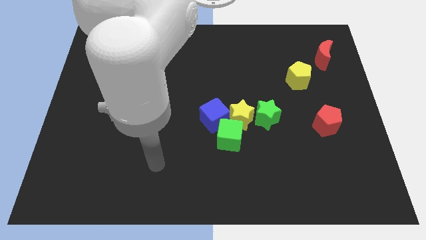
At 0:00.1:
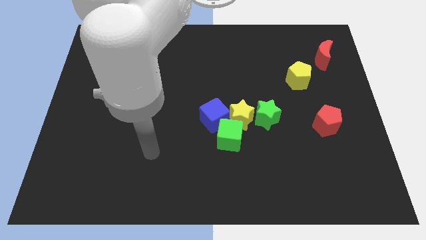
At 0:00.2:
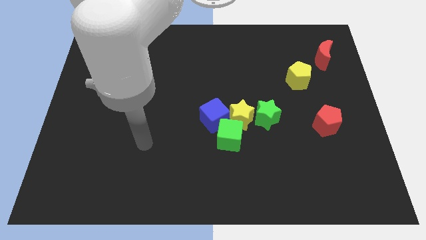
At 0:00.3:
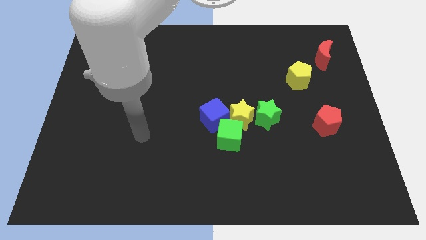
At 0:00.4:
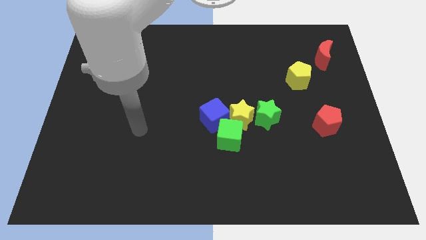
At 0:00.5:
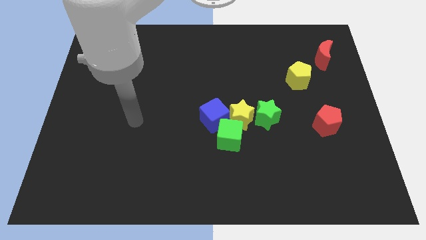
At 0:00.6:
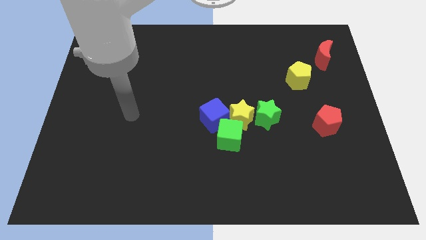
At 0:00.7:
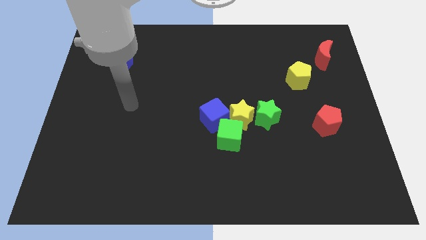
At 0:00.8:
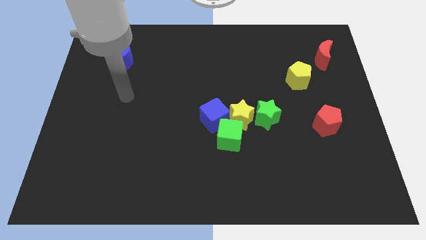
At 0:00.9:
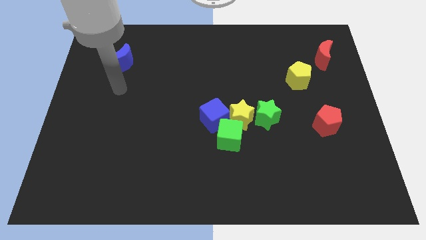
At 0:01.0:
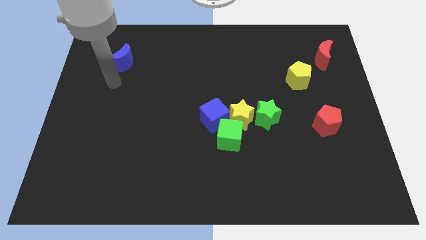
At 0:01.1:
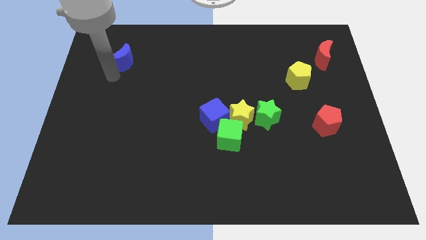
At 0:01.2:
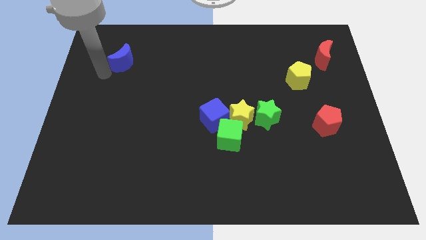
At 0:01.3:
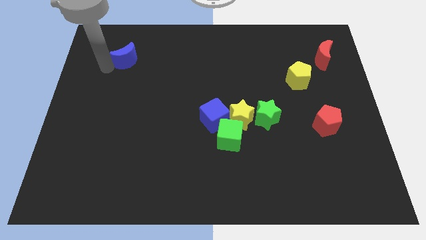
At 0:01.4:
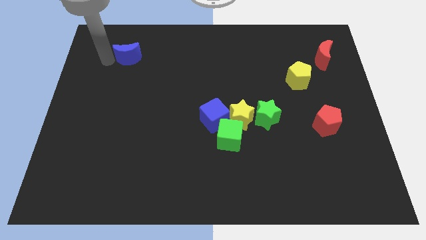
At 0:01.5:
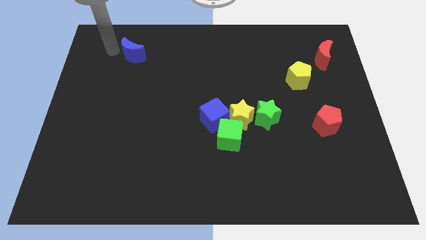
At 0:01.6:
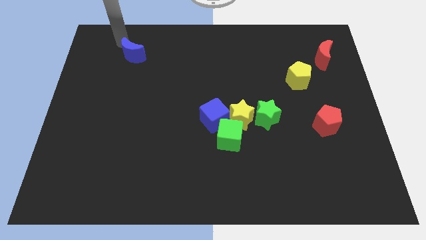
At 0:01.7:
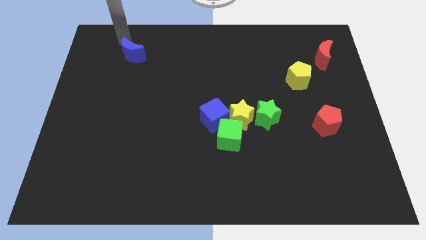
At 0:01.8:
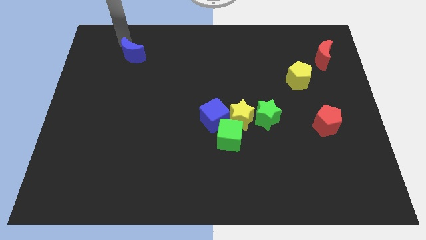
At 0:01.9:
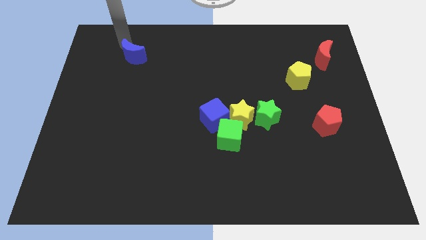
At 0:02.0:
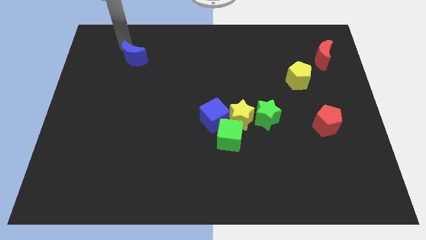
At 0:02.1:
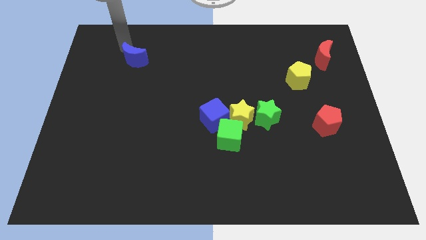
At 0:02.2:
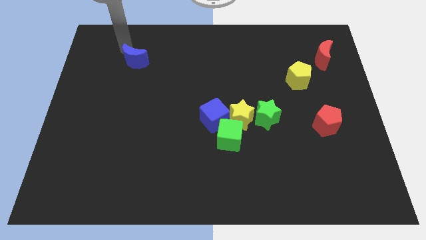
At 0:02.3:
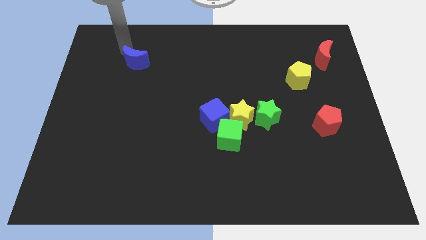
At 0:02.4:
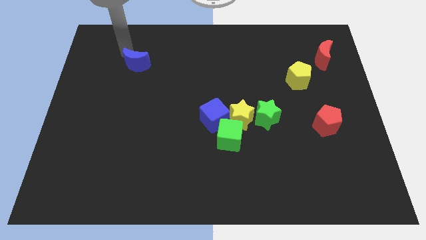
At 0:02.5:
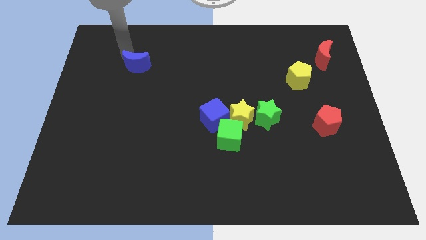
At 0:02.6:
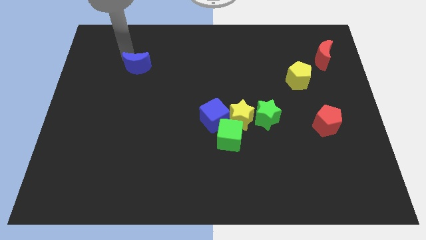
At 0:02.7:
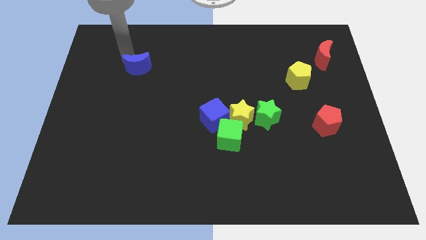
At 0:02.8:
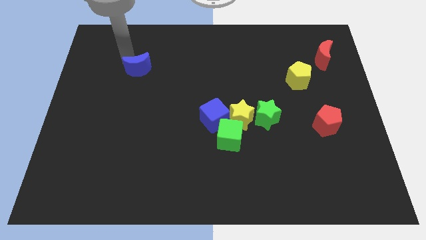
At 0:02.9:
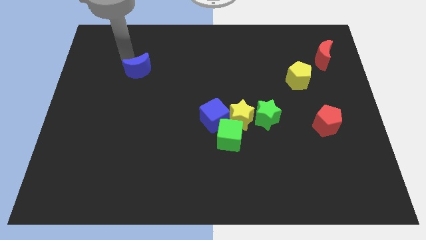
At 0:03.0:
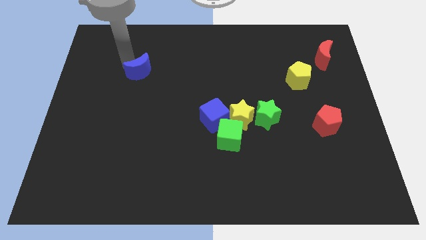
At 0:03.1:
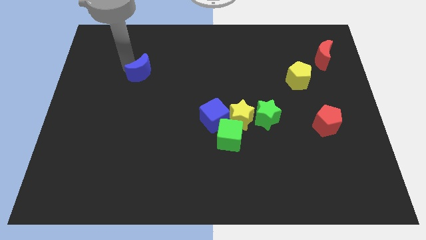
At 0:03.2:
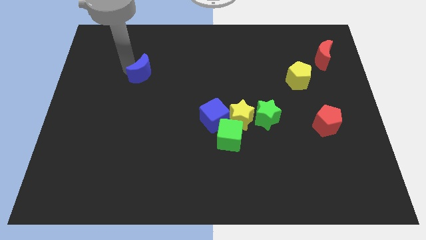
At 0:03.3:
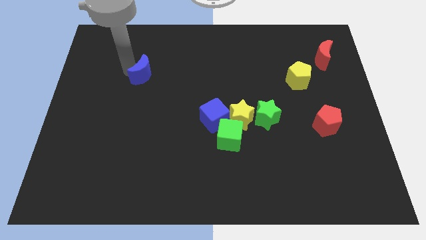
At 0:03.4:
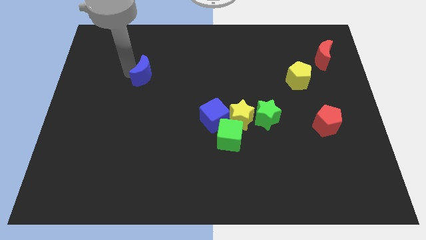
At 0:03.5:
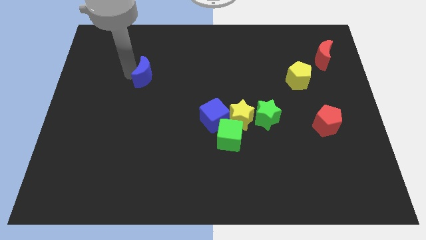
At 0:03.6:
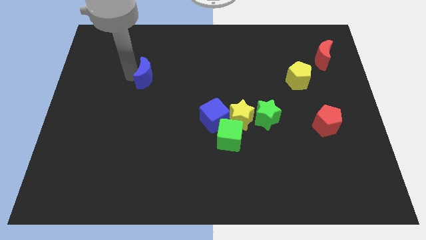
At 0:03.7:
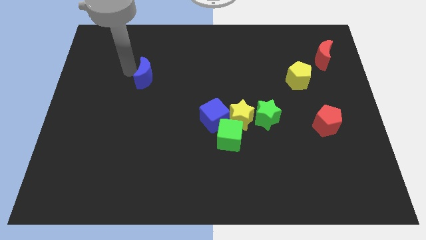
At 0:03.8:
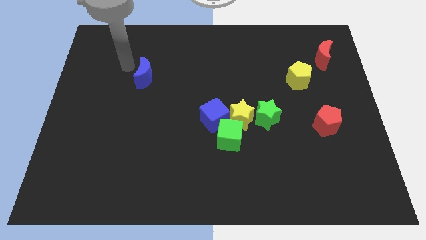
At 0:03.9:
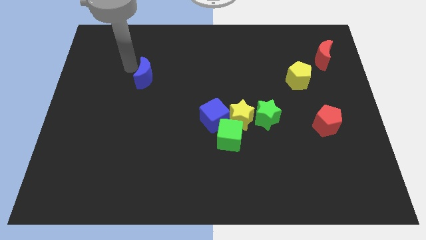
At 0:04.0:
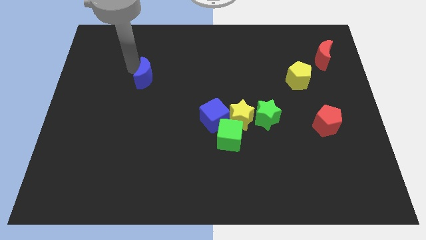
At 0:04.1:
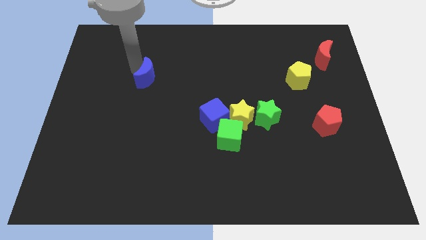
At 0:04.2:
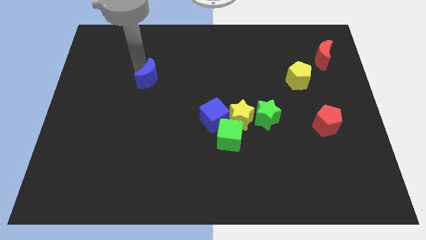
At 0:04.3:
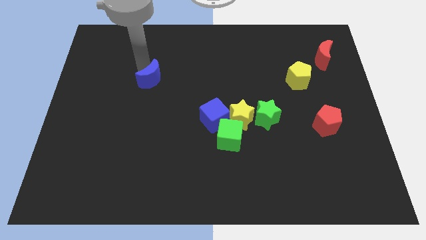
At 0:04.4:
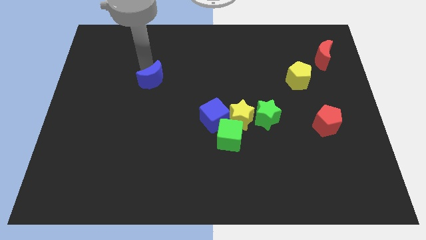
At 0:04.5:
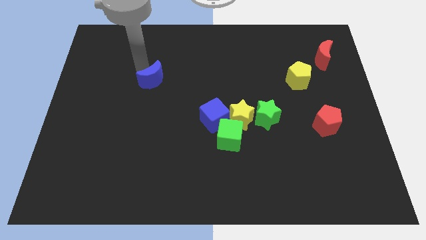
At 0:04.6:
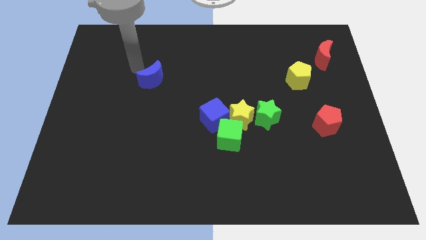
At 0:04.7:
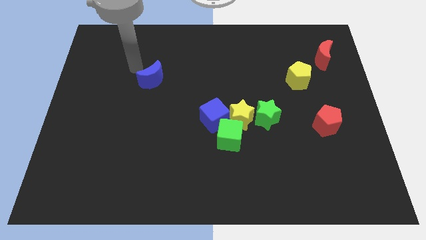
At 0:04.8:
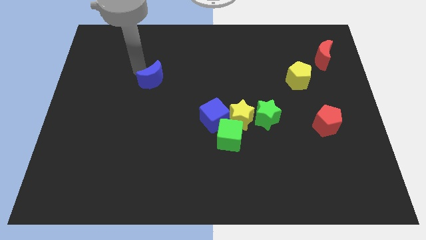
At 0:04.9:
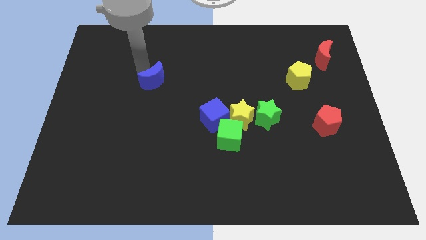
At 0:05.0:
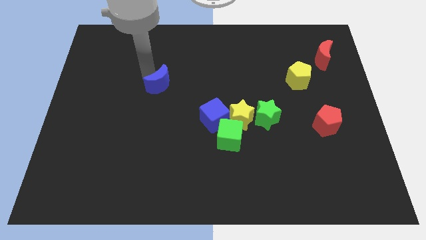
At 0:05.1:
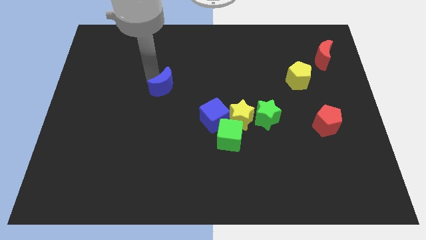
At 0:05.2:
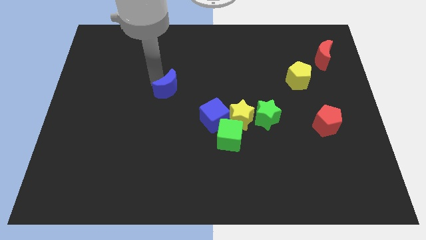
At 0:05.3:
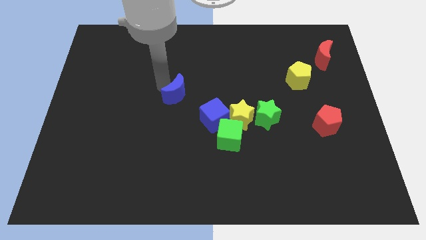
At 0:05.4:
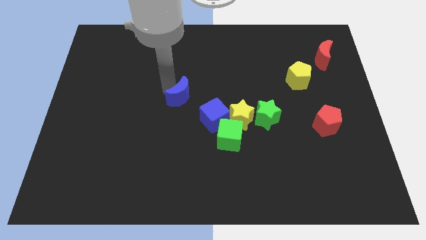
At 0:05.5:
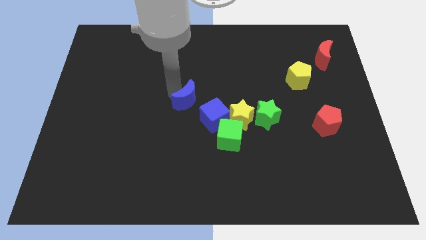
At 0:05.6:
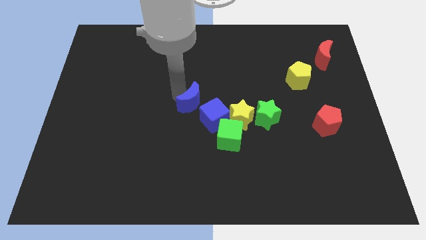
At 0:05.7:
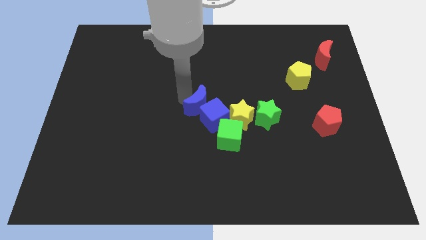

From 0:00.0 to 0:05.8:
put the blue moon towards the blue cube

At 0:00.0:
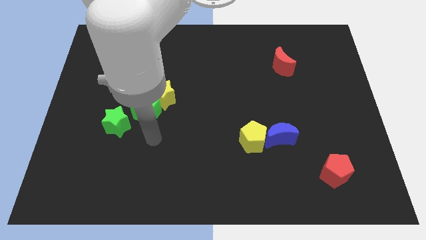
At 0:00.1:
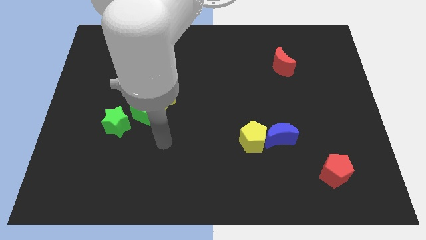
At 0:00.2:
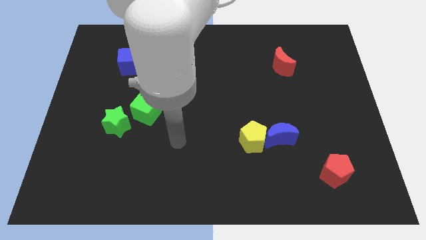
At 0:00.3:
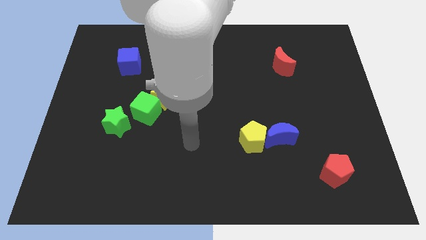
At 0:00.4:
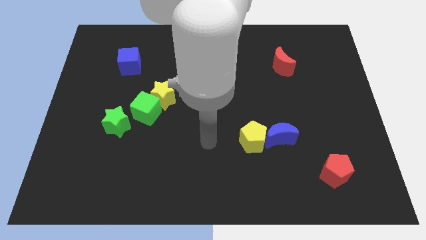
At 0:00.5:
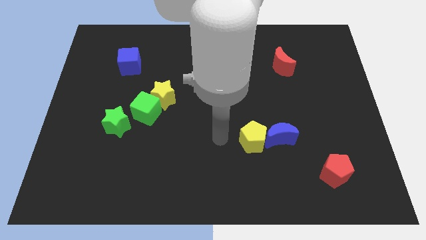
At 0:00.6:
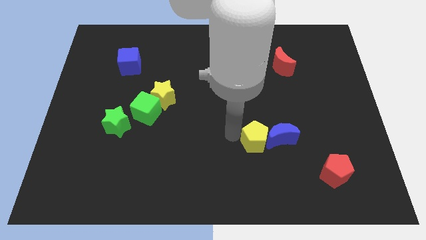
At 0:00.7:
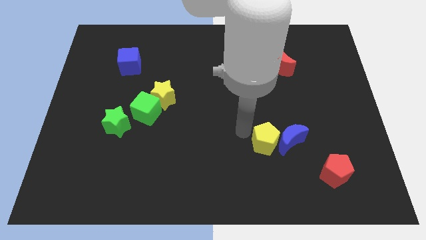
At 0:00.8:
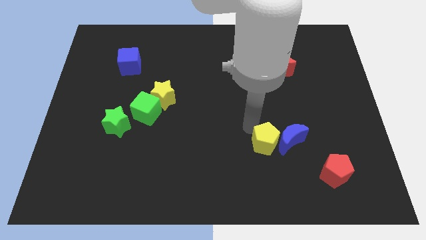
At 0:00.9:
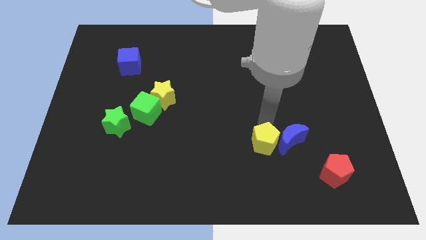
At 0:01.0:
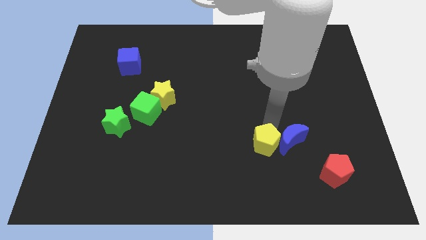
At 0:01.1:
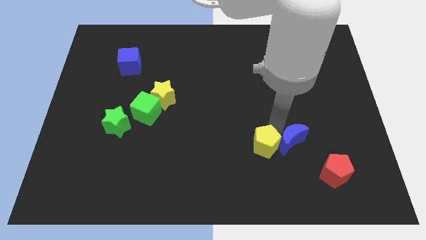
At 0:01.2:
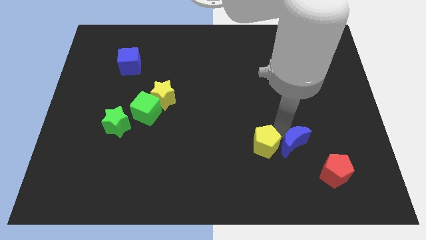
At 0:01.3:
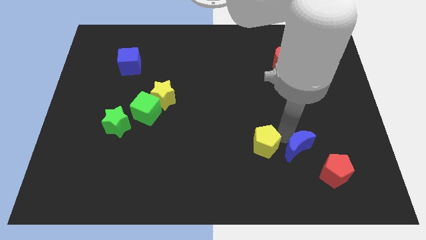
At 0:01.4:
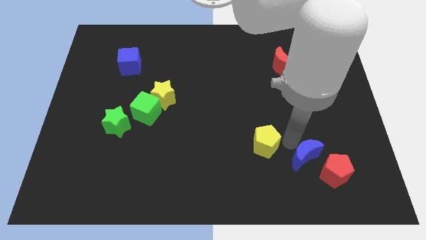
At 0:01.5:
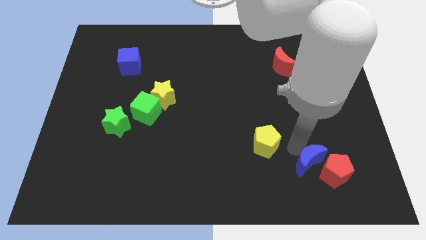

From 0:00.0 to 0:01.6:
put the blue moon to the red pentagon

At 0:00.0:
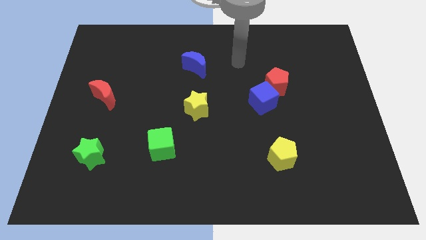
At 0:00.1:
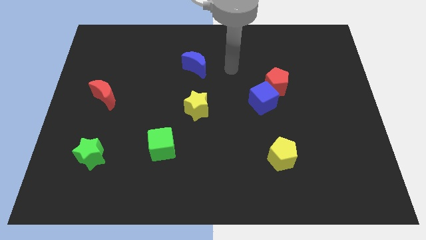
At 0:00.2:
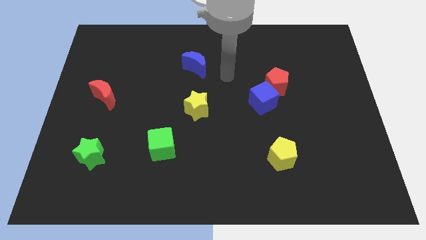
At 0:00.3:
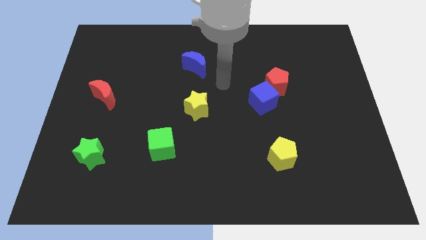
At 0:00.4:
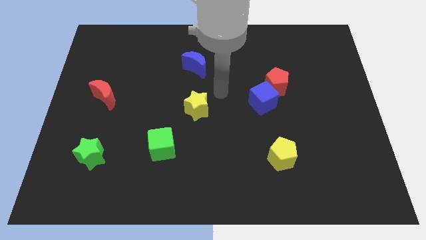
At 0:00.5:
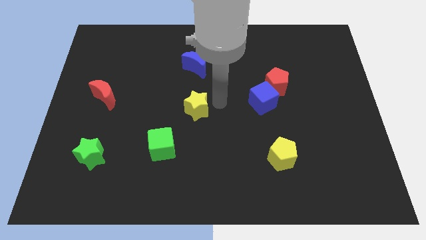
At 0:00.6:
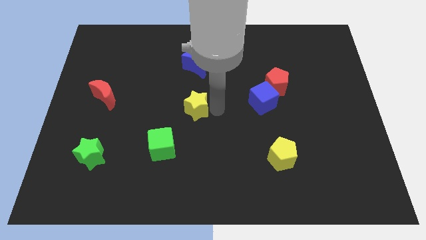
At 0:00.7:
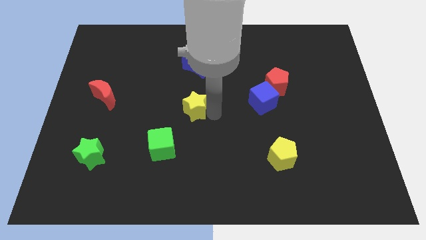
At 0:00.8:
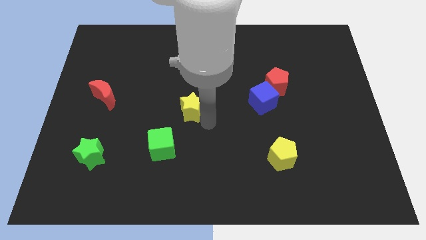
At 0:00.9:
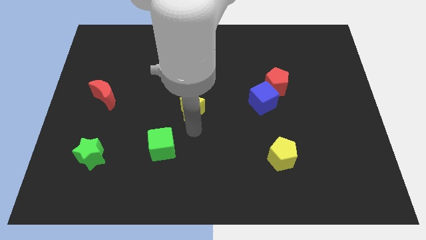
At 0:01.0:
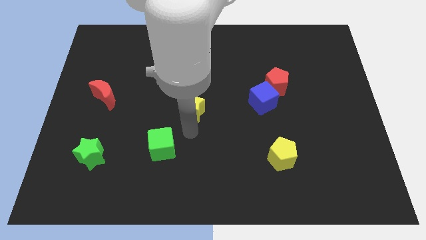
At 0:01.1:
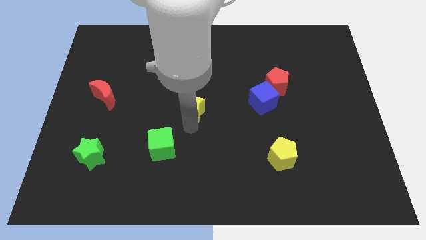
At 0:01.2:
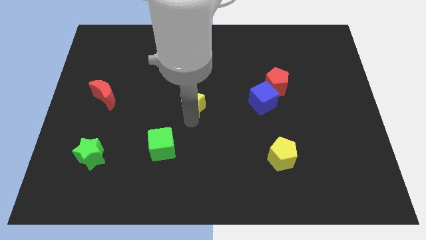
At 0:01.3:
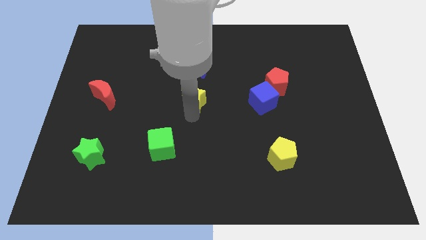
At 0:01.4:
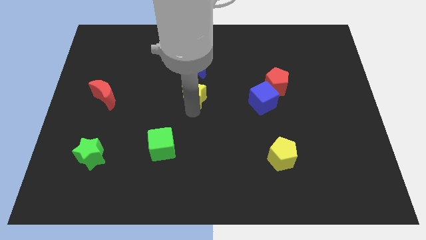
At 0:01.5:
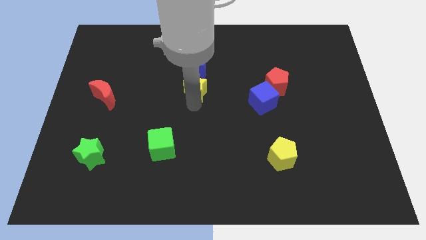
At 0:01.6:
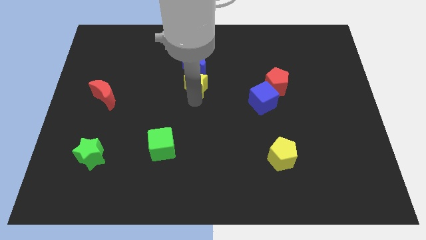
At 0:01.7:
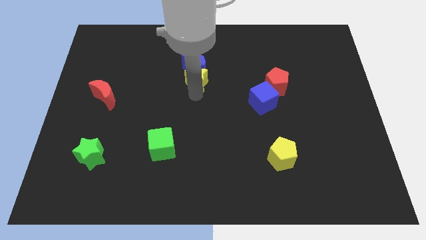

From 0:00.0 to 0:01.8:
slide the yellow star close to the blue moon
